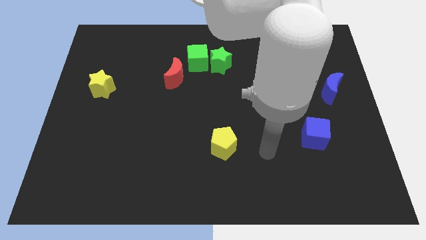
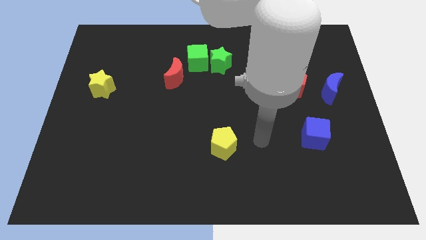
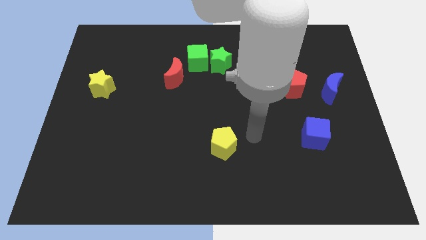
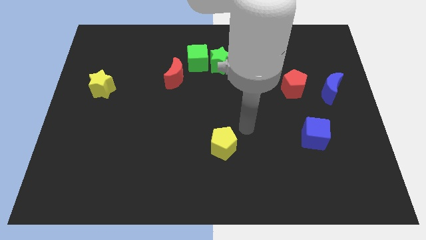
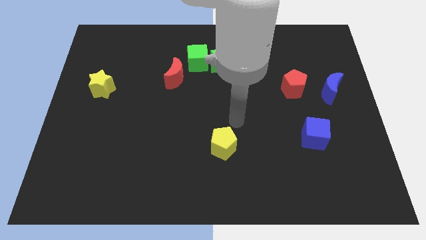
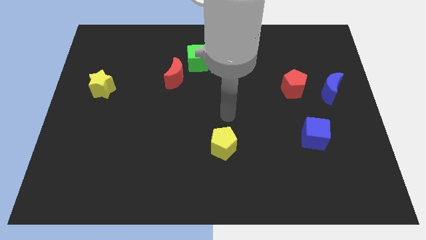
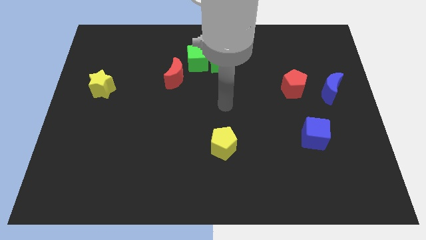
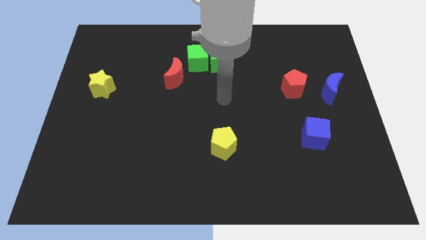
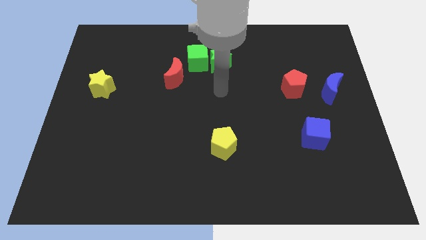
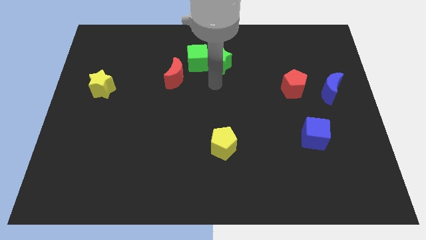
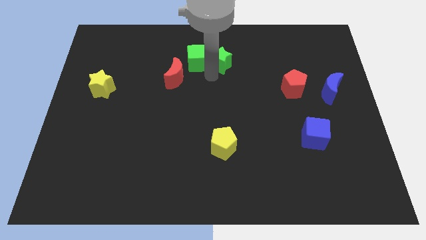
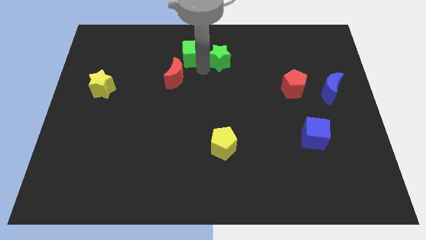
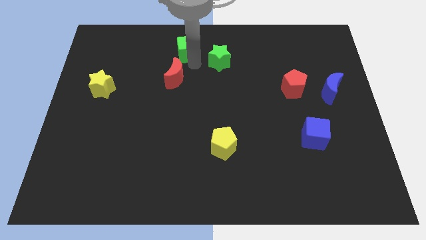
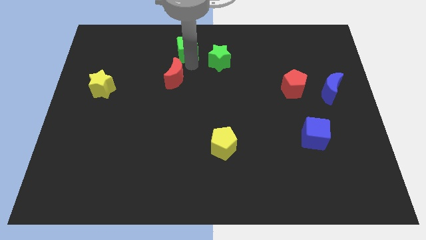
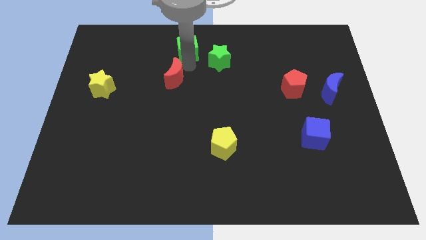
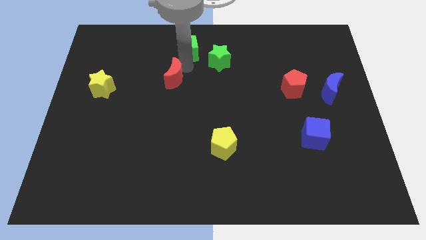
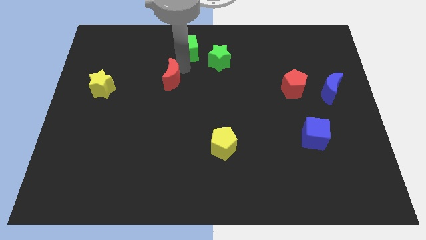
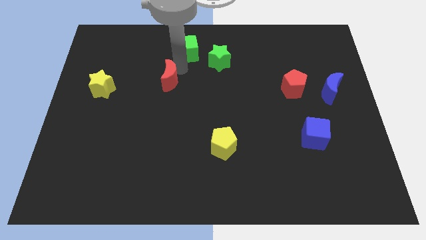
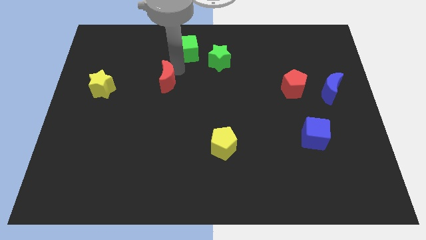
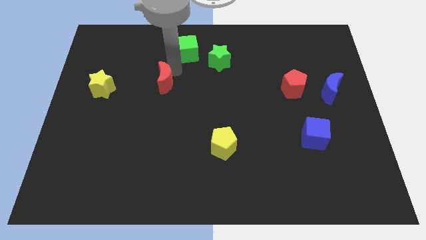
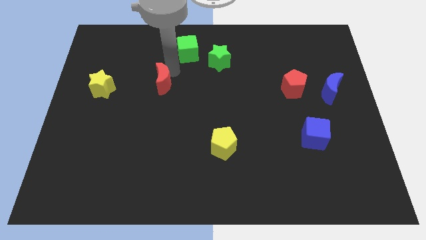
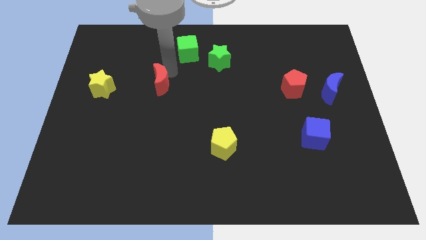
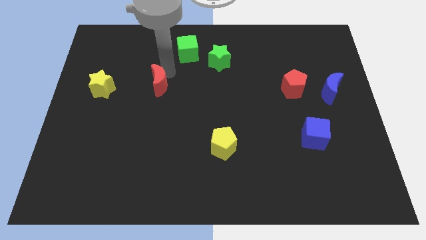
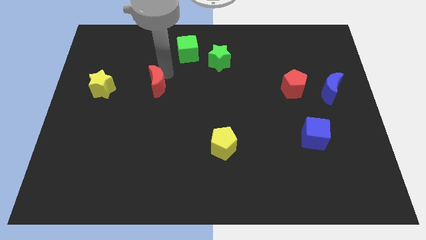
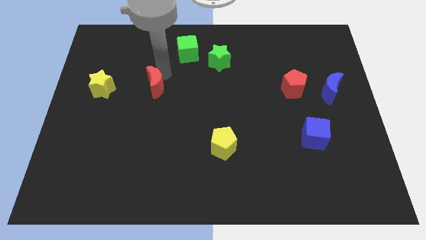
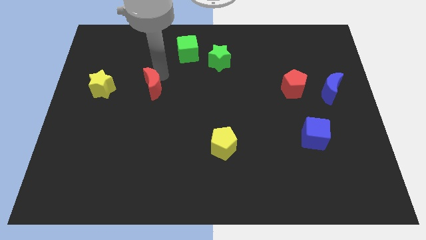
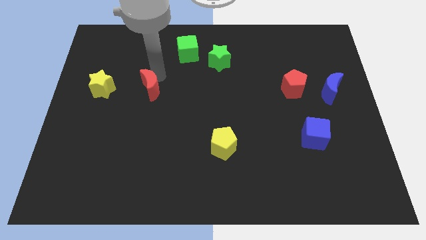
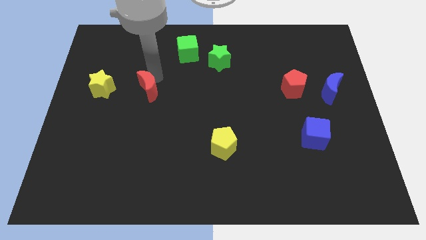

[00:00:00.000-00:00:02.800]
push the red moon down and to the left slightly

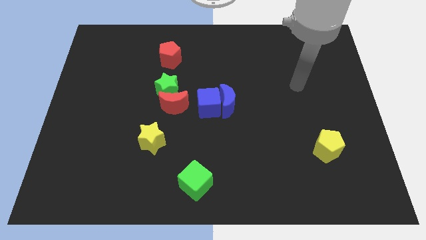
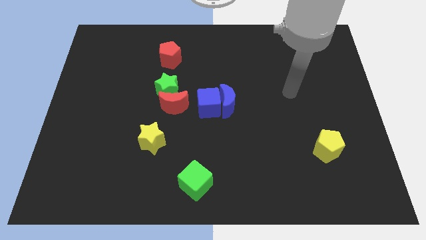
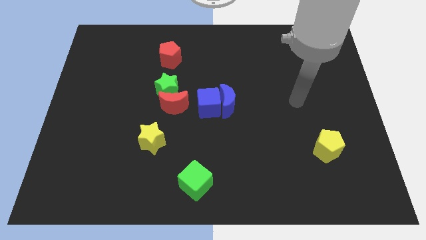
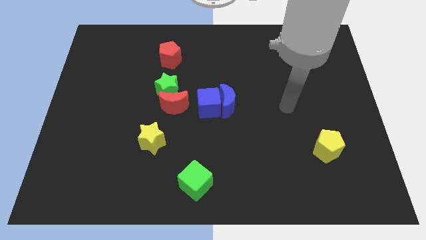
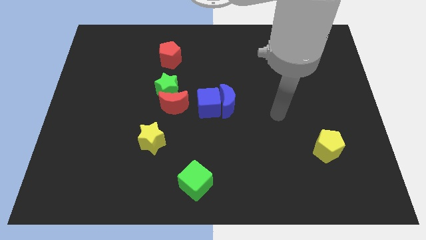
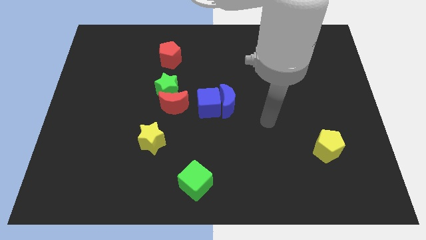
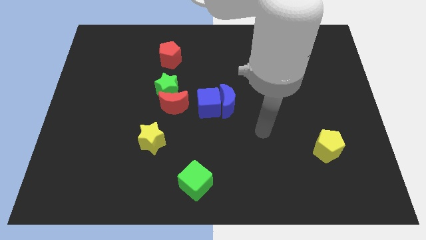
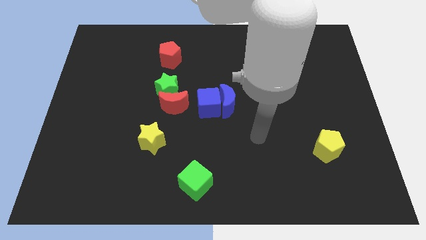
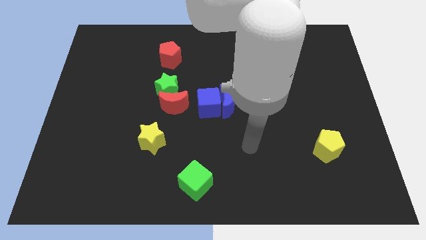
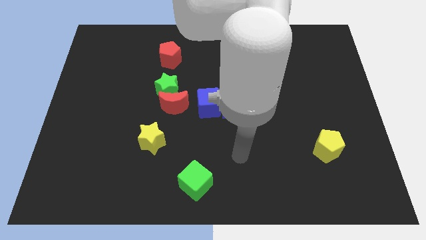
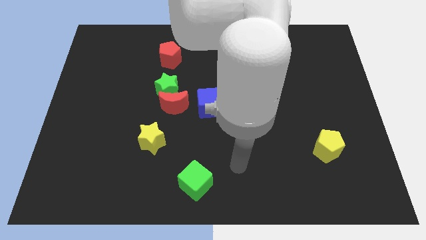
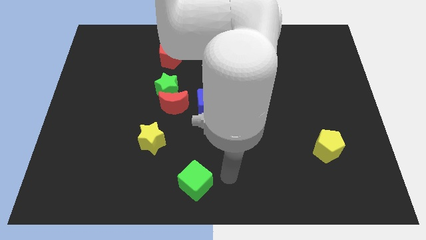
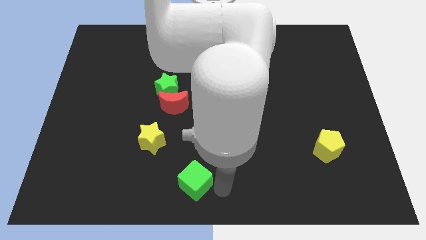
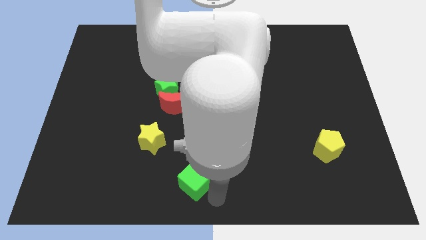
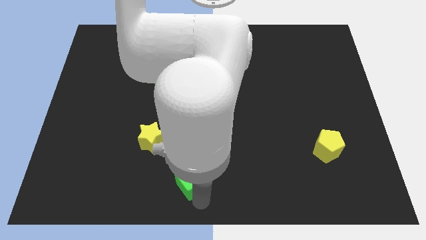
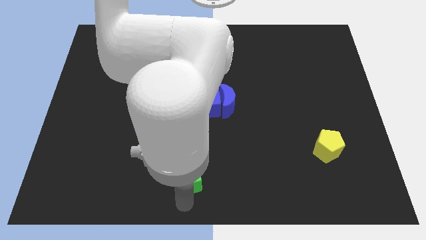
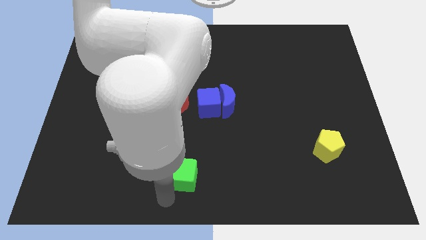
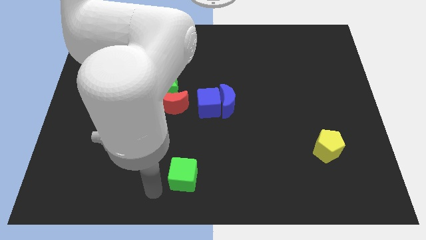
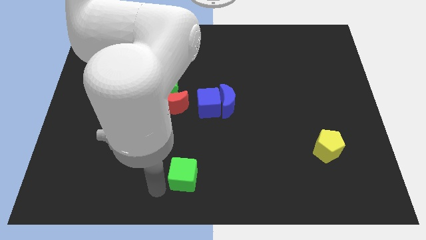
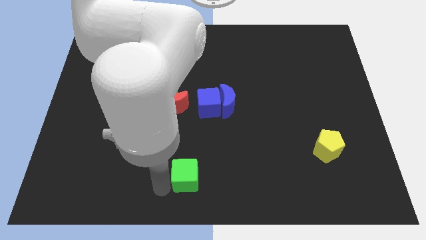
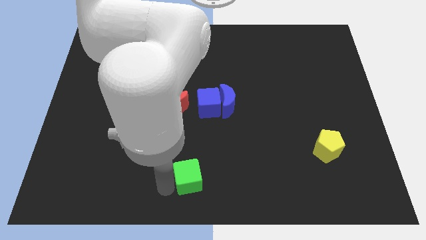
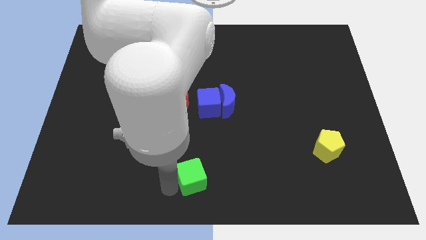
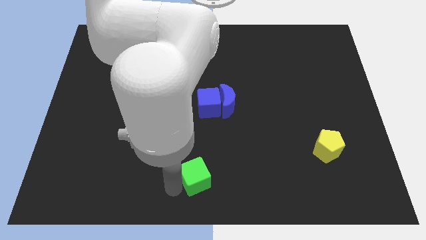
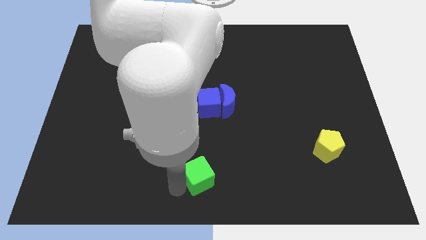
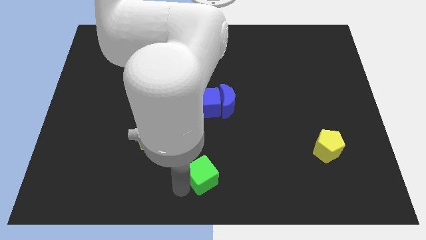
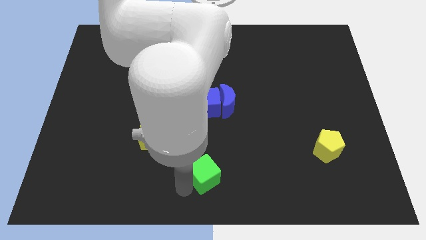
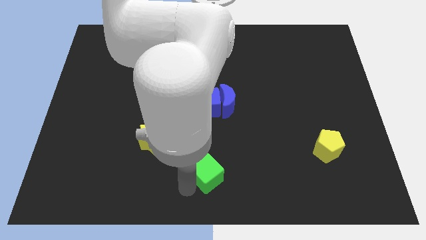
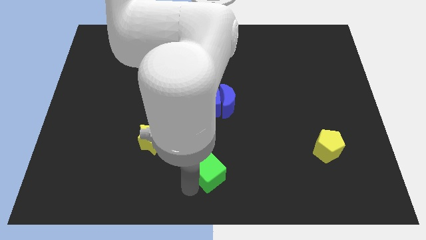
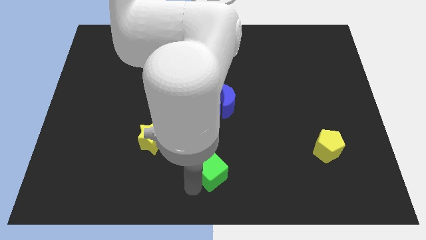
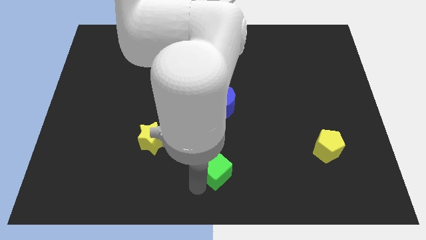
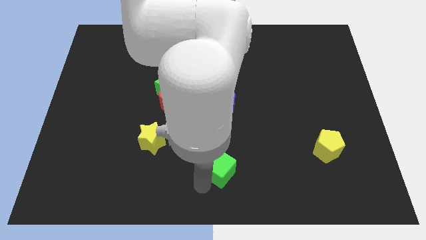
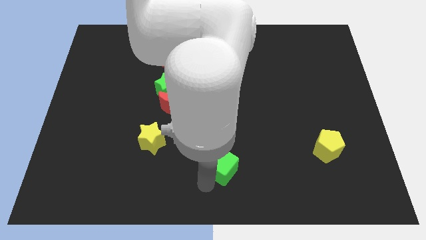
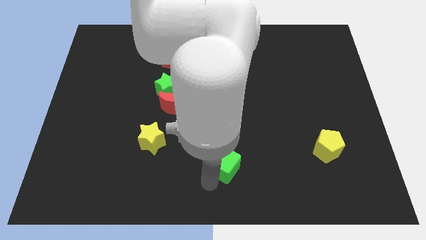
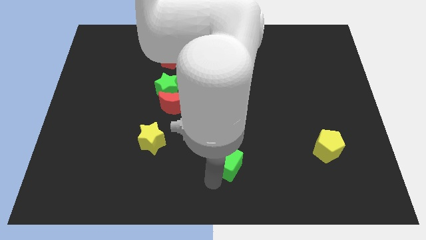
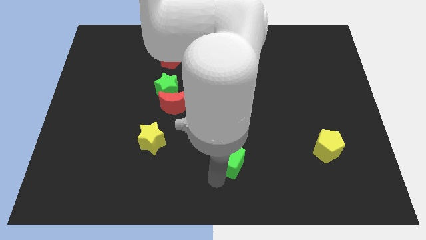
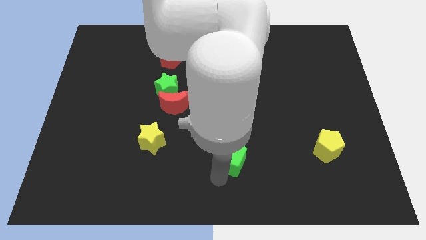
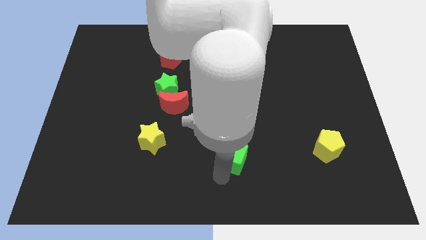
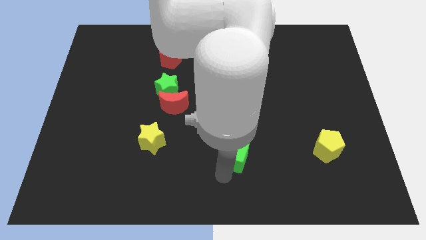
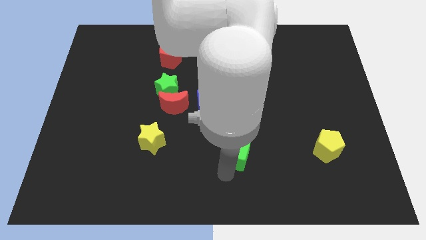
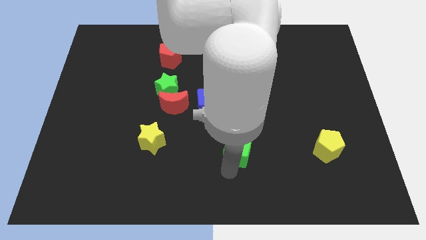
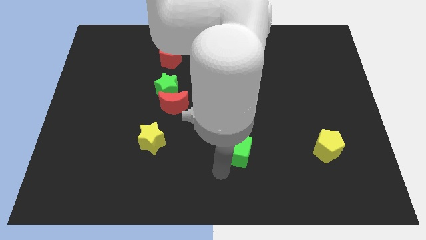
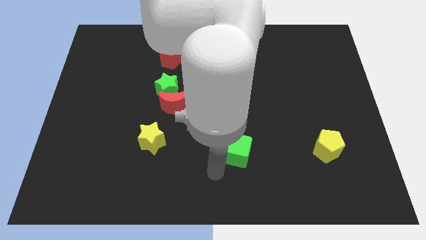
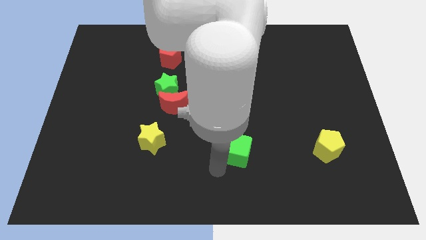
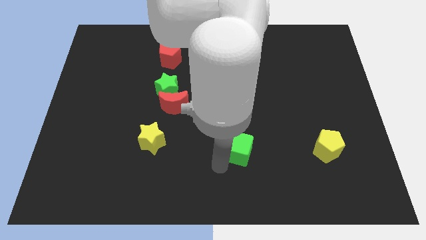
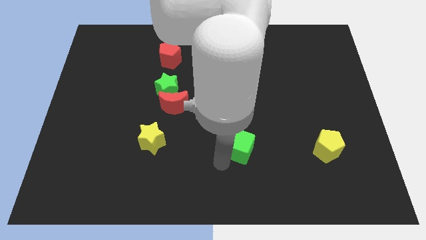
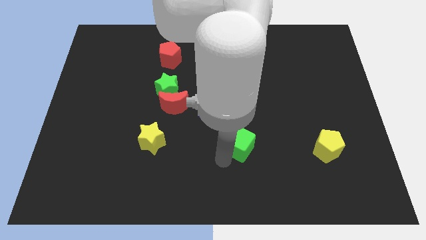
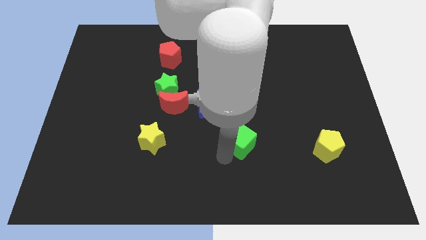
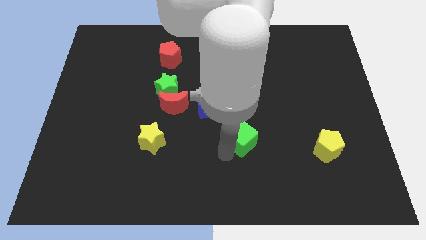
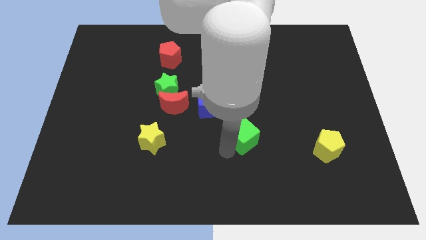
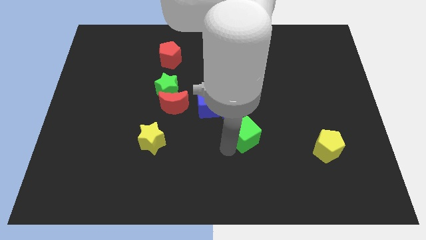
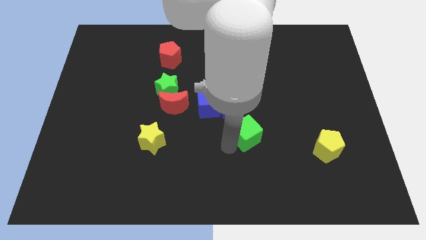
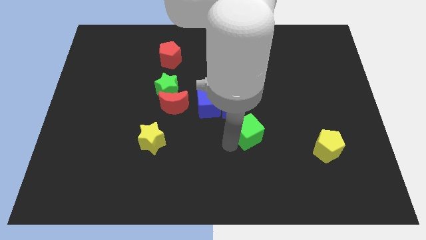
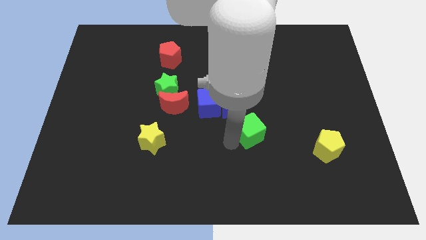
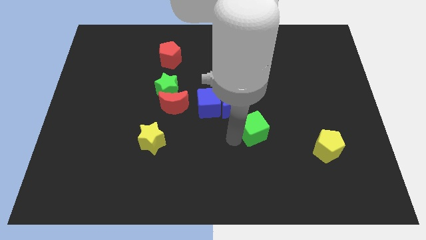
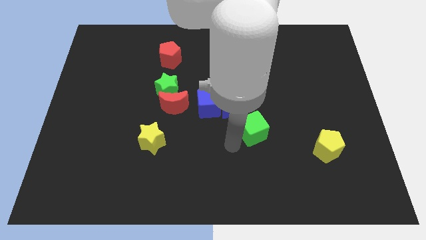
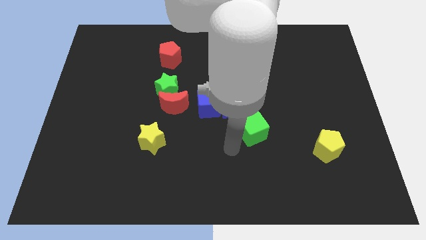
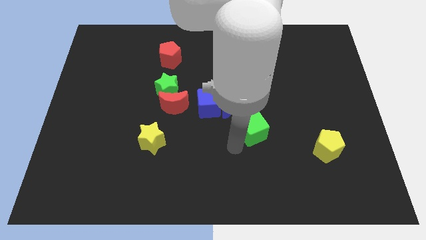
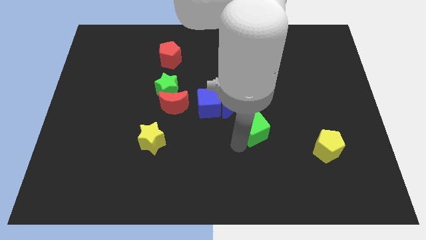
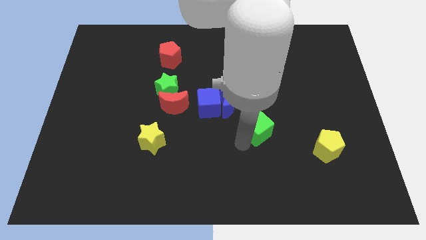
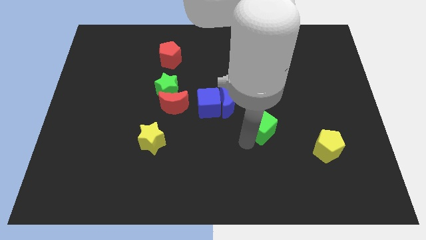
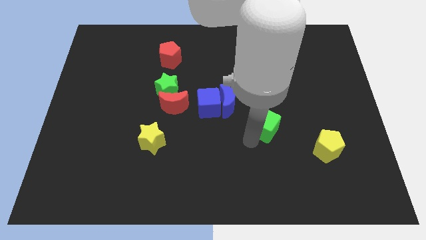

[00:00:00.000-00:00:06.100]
push the green cube diagonally up and to the right
